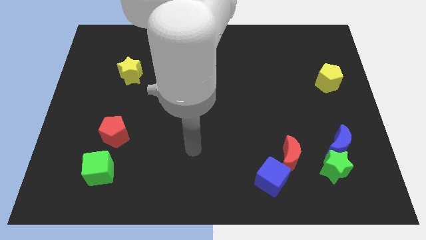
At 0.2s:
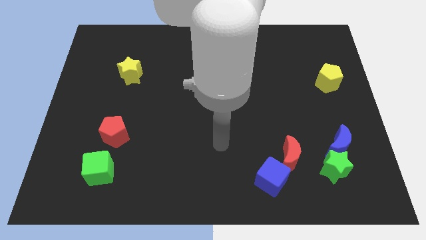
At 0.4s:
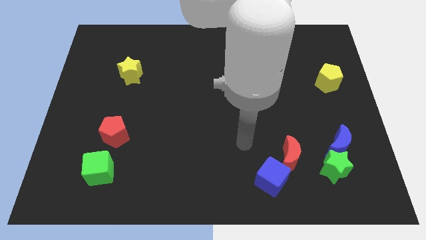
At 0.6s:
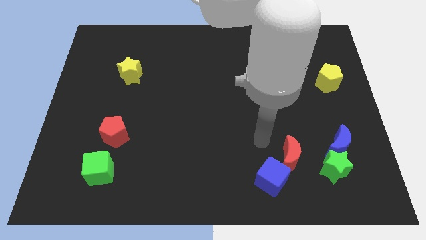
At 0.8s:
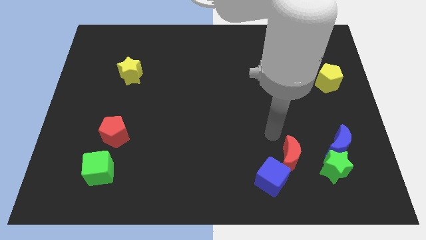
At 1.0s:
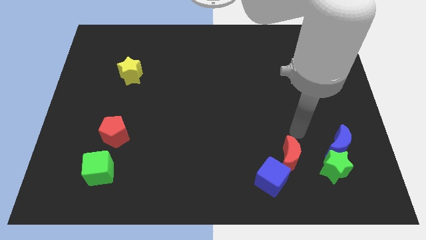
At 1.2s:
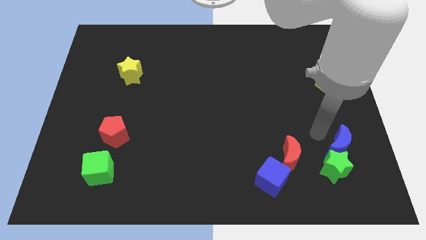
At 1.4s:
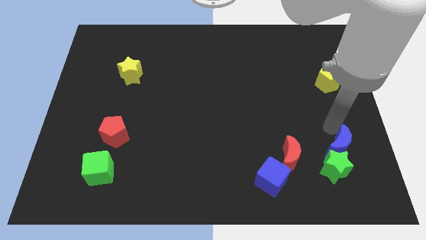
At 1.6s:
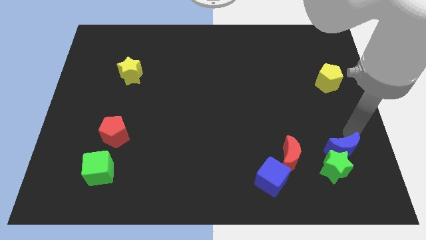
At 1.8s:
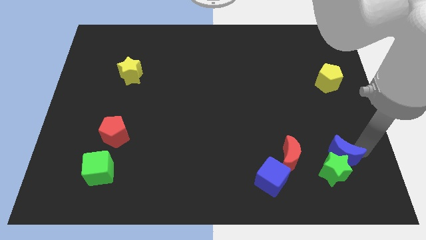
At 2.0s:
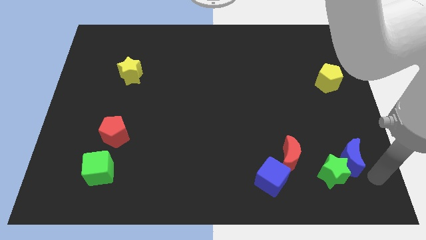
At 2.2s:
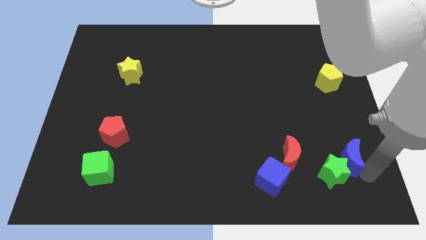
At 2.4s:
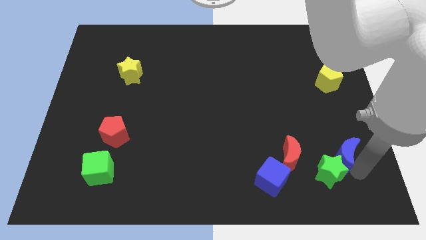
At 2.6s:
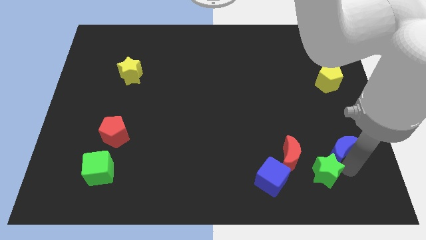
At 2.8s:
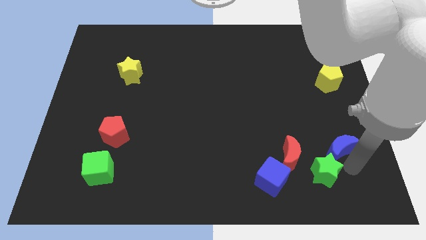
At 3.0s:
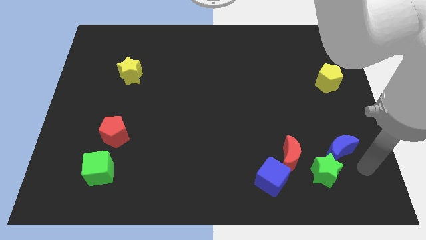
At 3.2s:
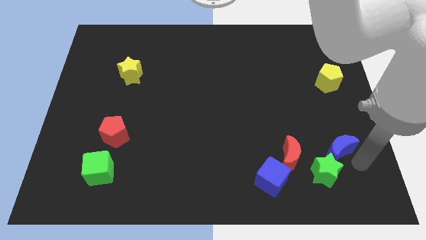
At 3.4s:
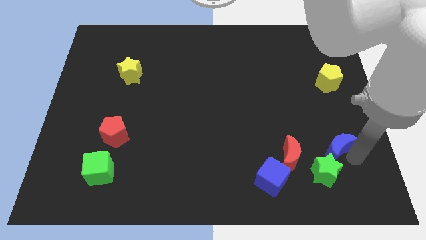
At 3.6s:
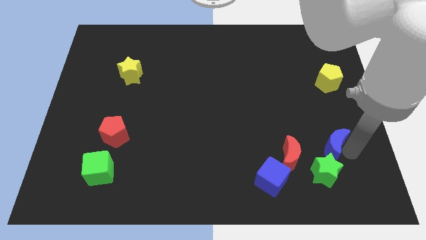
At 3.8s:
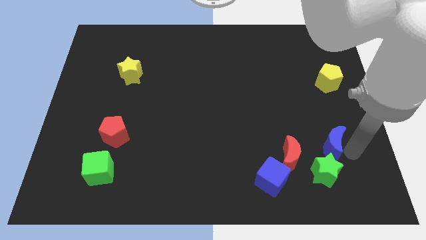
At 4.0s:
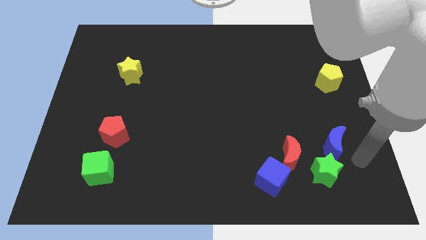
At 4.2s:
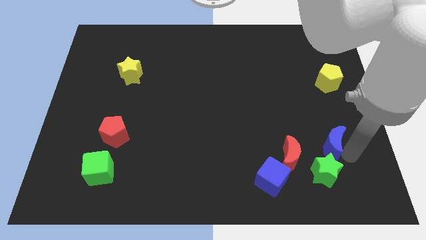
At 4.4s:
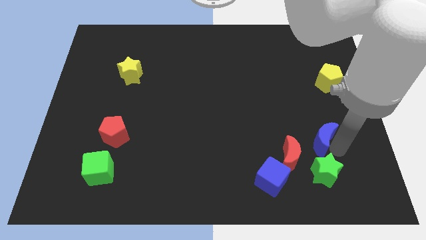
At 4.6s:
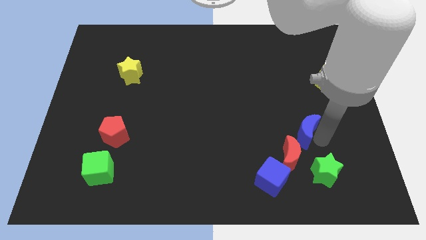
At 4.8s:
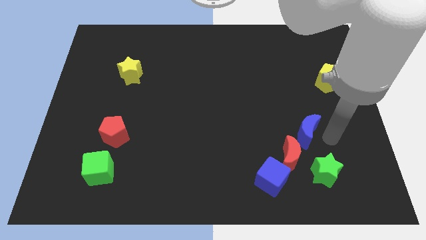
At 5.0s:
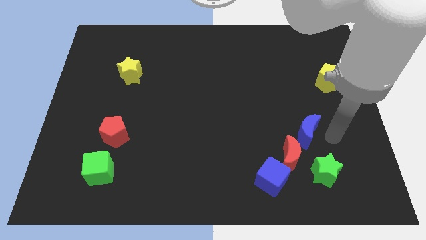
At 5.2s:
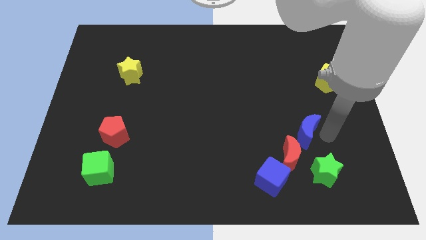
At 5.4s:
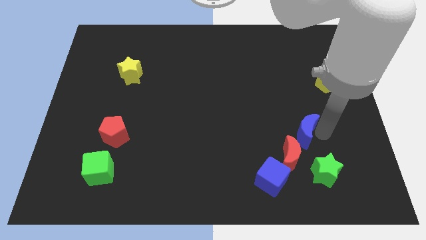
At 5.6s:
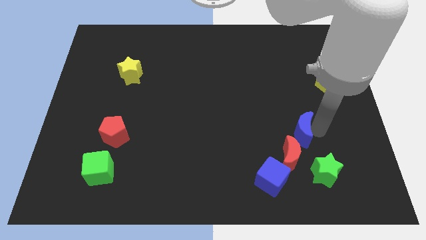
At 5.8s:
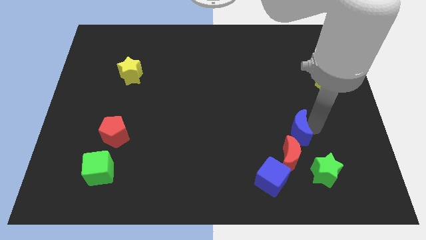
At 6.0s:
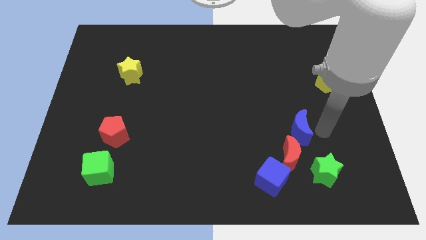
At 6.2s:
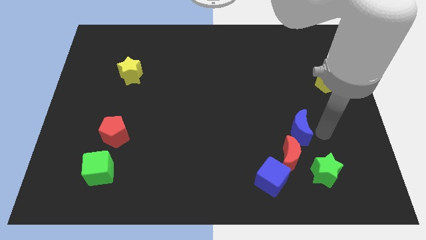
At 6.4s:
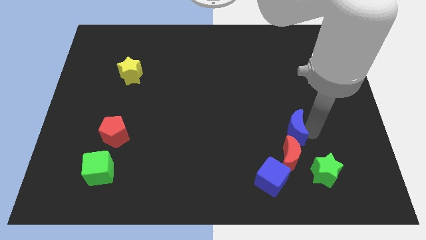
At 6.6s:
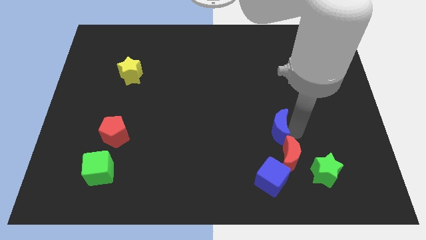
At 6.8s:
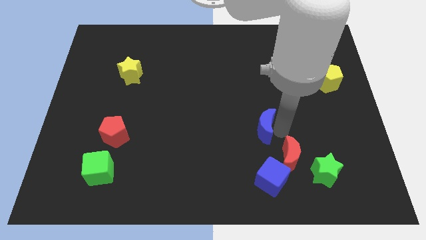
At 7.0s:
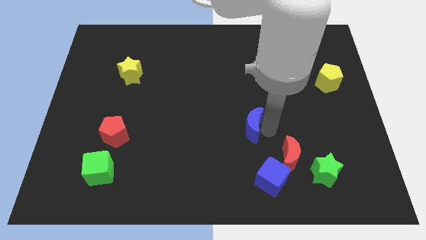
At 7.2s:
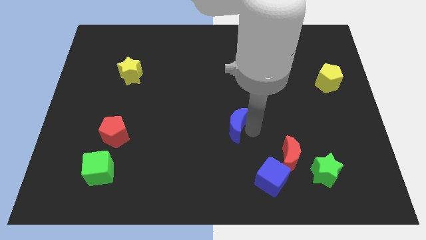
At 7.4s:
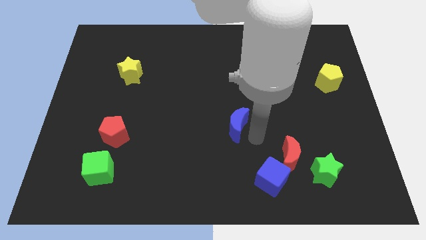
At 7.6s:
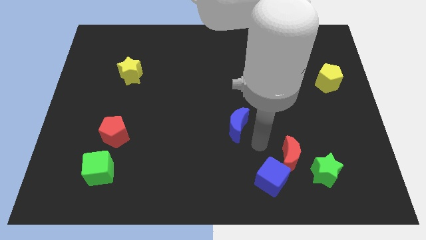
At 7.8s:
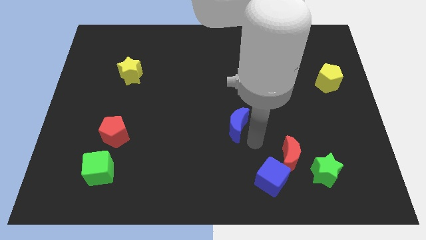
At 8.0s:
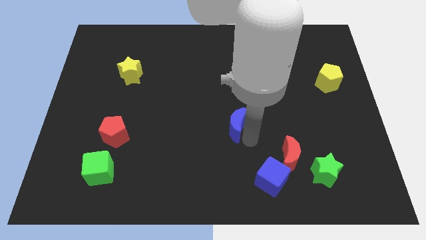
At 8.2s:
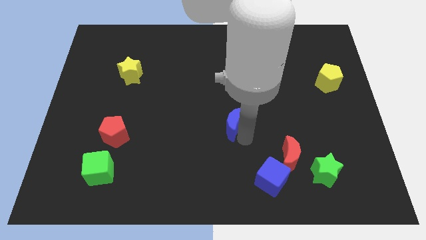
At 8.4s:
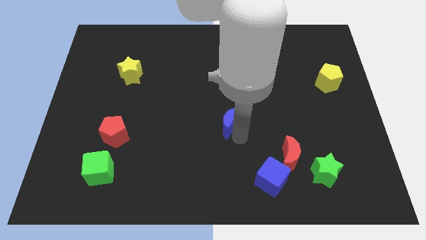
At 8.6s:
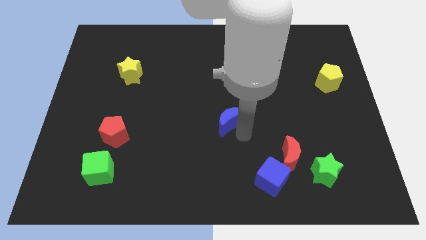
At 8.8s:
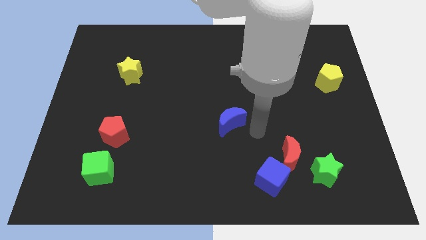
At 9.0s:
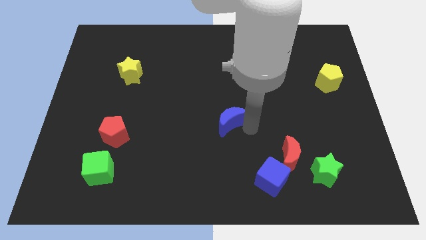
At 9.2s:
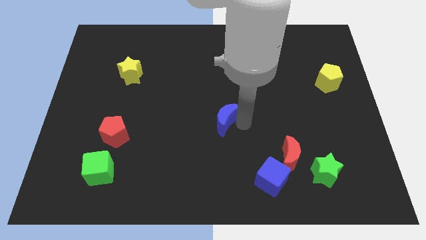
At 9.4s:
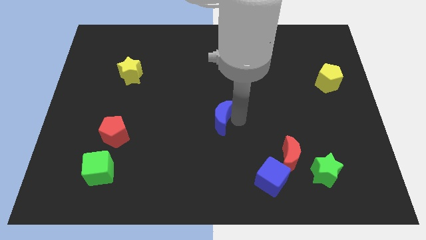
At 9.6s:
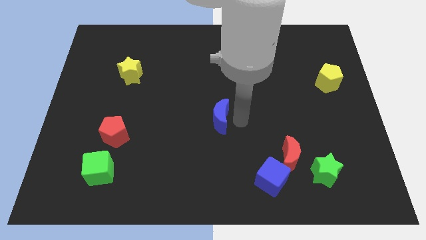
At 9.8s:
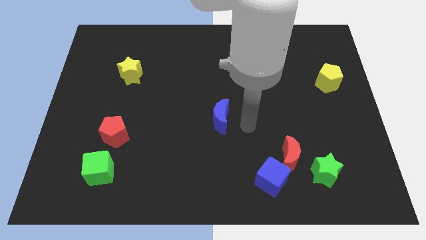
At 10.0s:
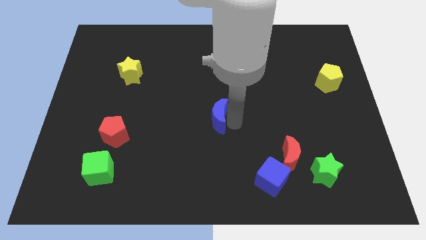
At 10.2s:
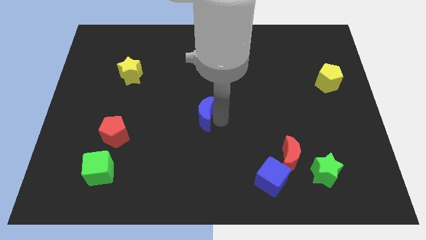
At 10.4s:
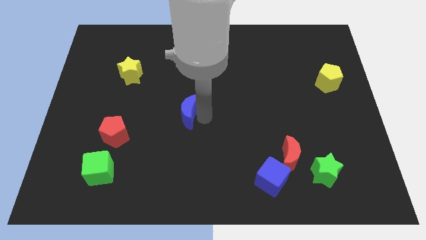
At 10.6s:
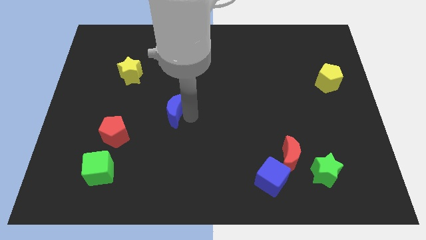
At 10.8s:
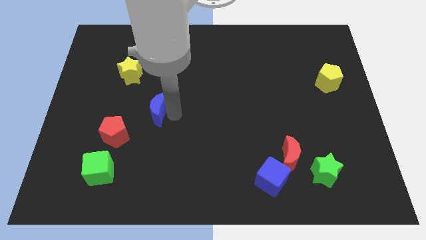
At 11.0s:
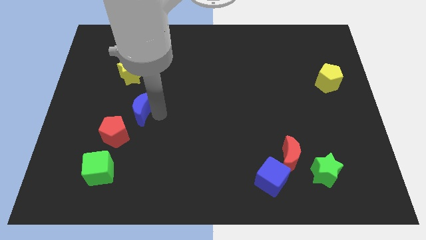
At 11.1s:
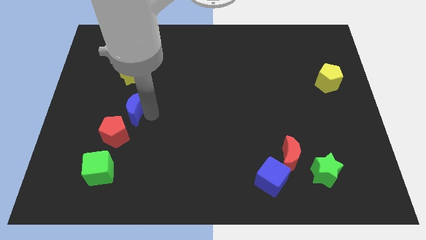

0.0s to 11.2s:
push the blue moon to the top side of the red pentagon
